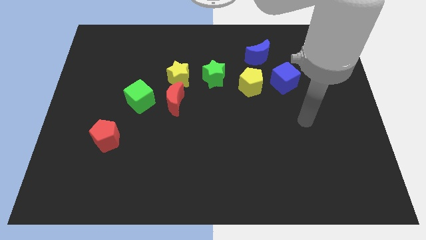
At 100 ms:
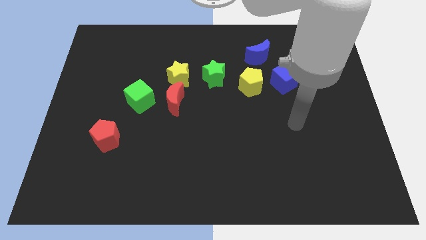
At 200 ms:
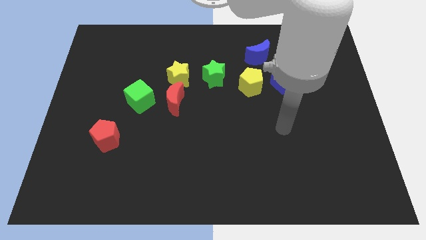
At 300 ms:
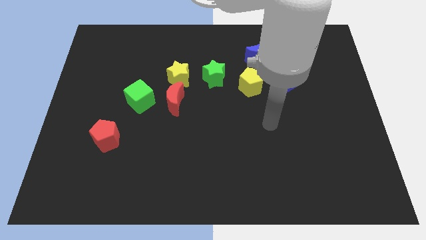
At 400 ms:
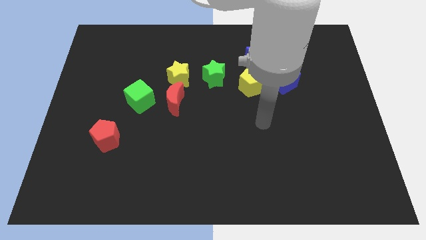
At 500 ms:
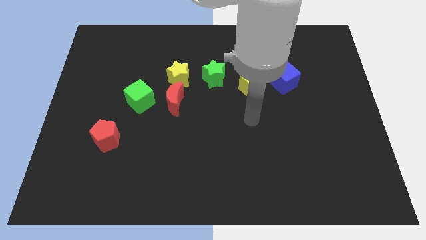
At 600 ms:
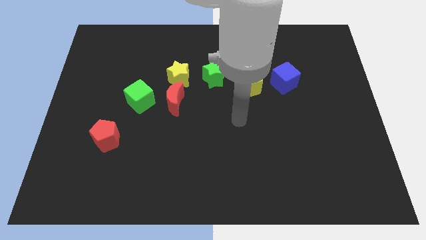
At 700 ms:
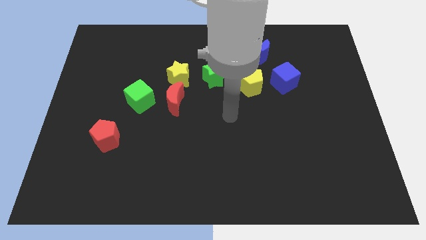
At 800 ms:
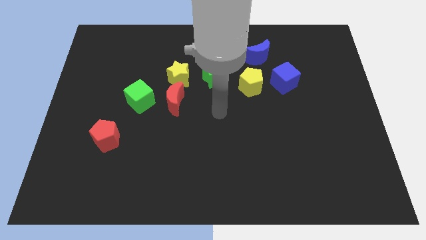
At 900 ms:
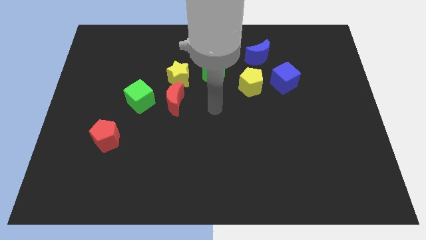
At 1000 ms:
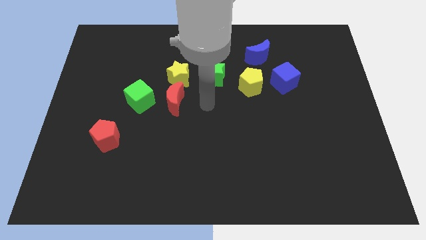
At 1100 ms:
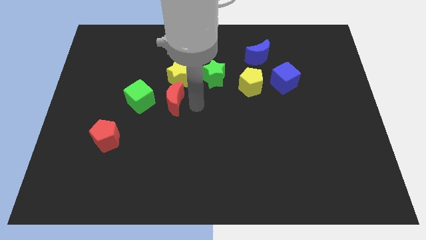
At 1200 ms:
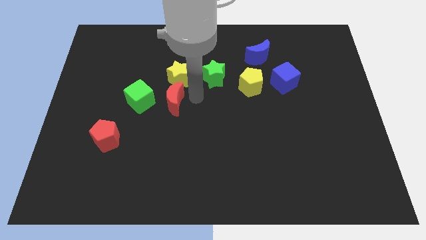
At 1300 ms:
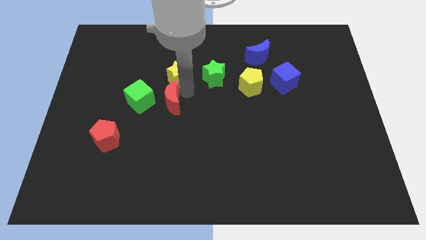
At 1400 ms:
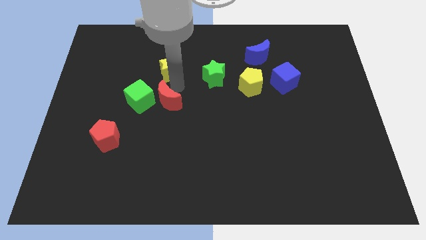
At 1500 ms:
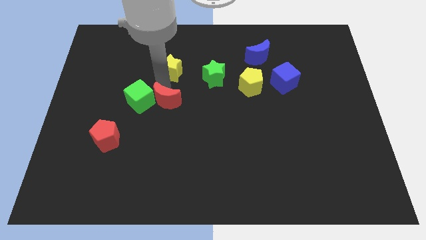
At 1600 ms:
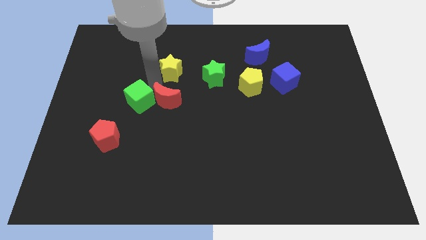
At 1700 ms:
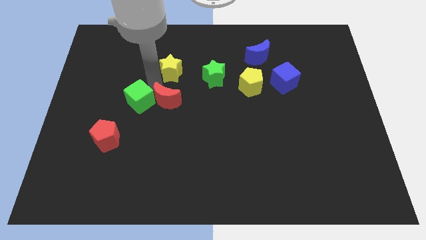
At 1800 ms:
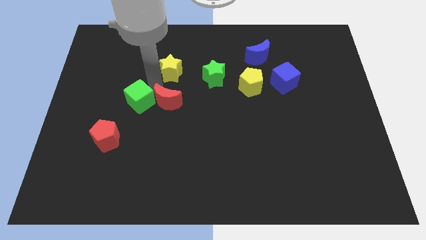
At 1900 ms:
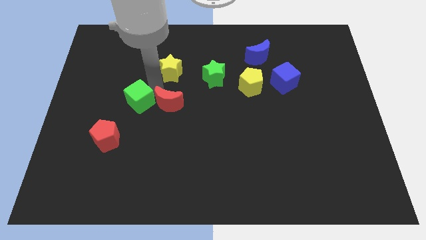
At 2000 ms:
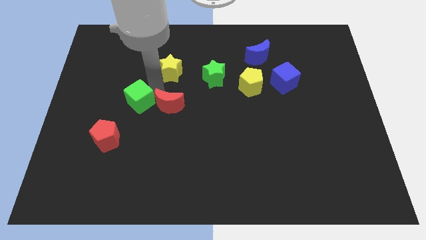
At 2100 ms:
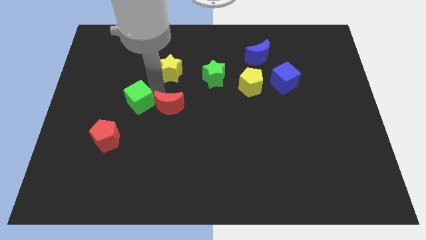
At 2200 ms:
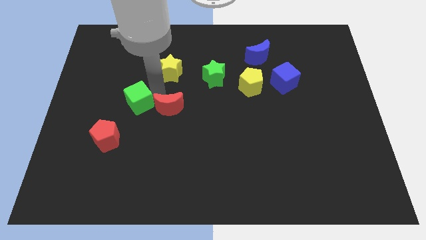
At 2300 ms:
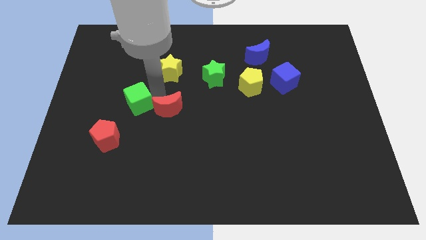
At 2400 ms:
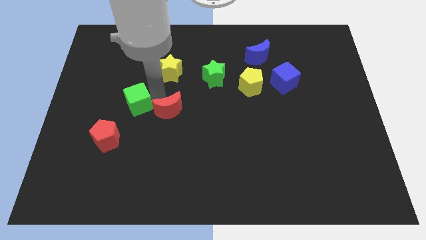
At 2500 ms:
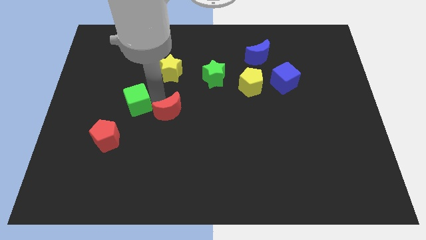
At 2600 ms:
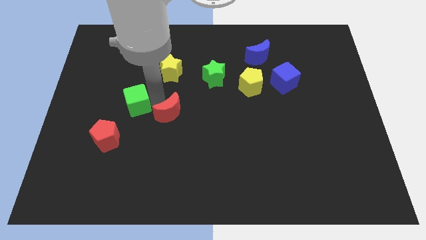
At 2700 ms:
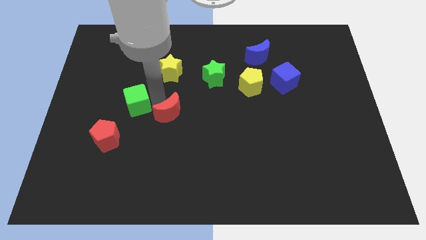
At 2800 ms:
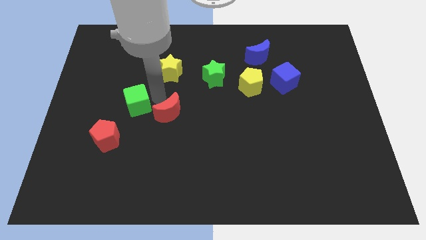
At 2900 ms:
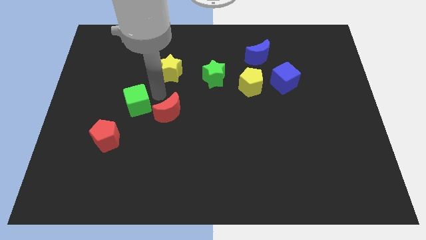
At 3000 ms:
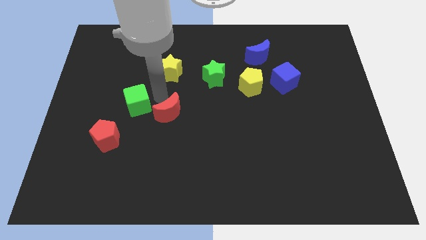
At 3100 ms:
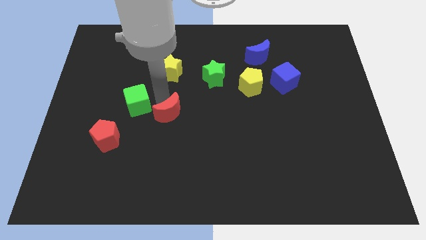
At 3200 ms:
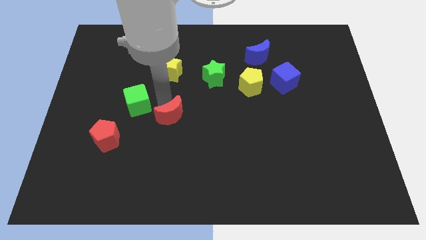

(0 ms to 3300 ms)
pull the red moon apart from the yellow star and green cube

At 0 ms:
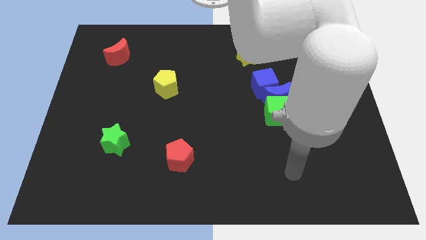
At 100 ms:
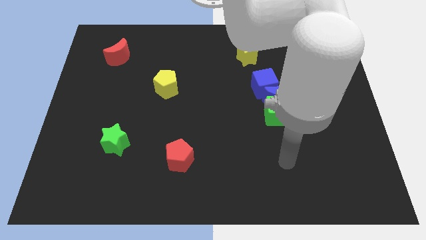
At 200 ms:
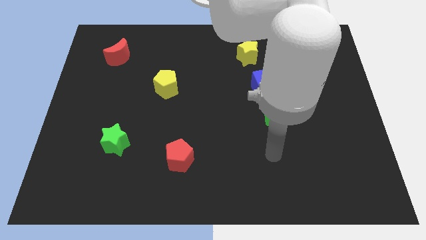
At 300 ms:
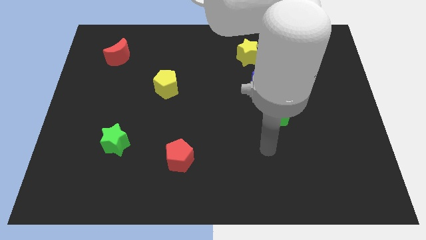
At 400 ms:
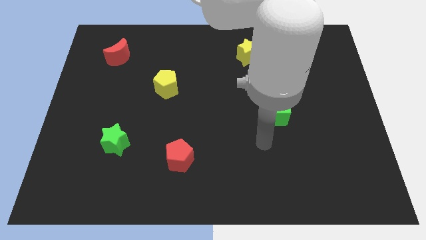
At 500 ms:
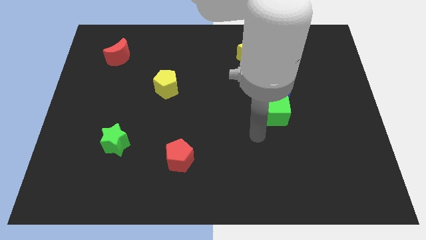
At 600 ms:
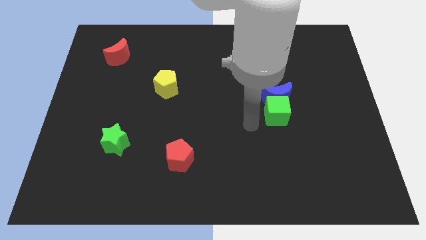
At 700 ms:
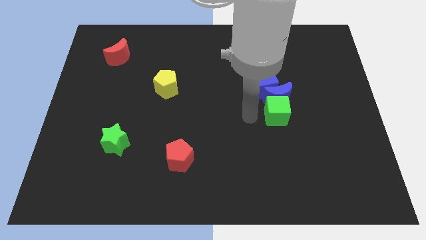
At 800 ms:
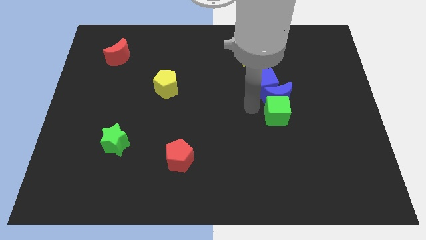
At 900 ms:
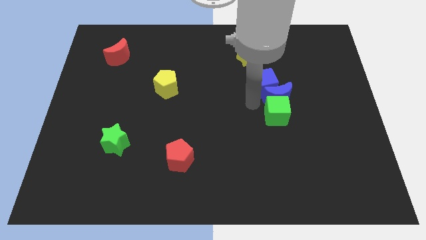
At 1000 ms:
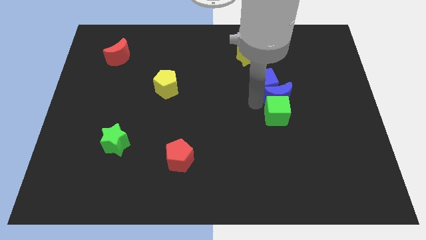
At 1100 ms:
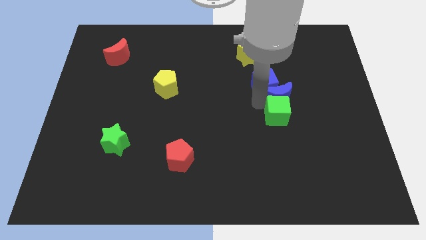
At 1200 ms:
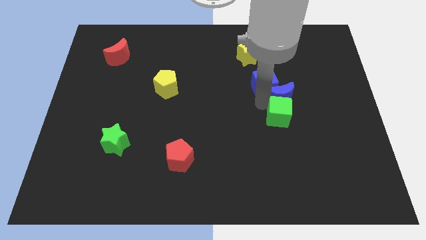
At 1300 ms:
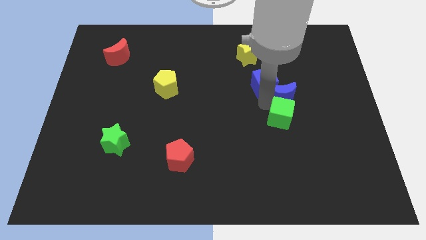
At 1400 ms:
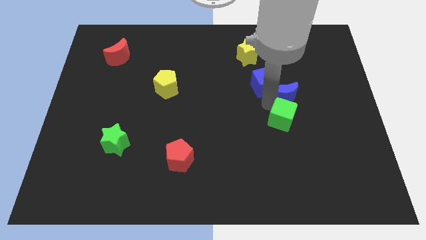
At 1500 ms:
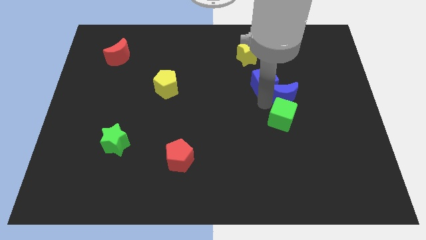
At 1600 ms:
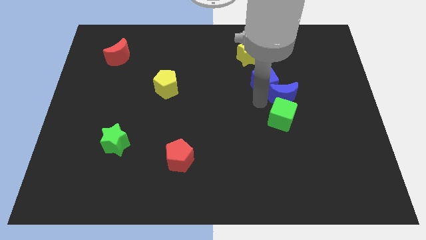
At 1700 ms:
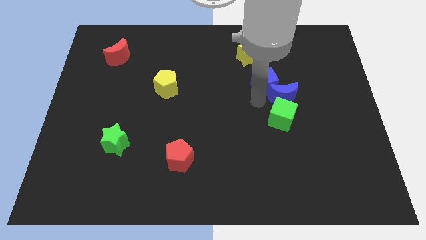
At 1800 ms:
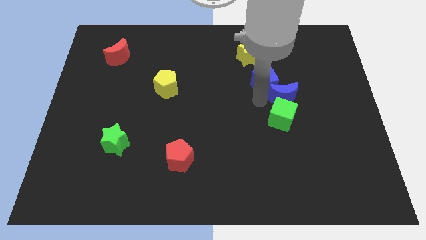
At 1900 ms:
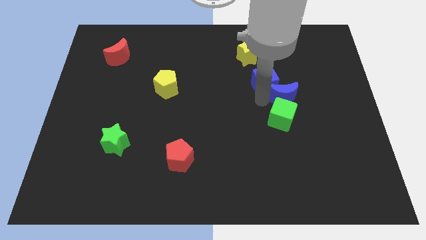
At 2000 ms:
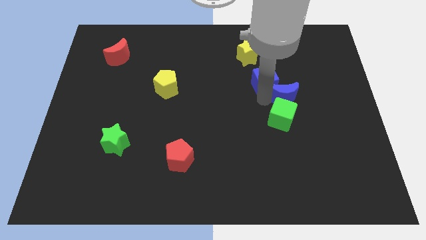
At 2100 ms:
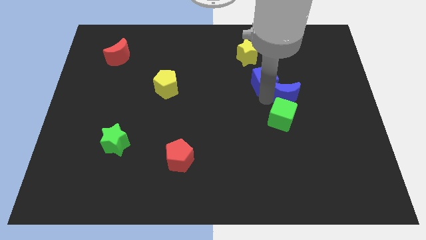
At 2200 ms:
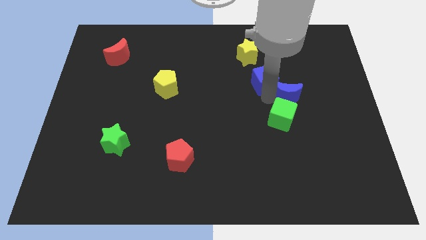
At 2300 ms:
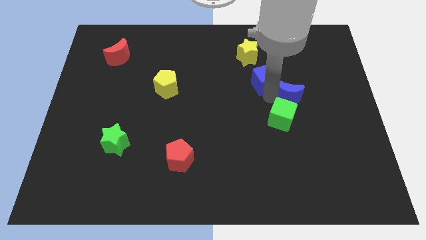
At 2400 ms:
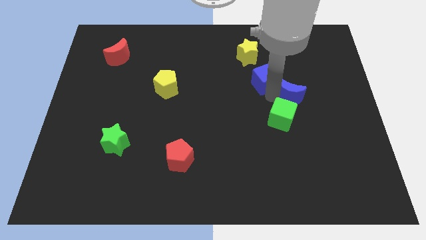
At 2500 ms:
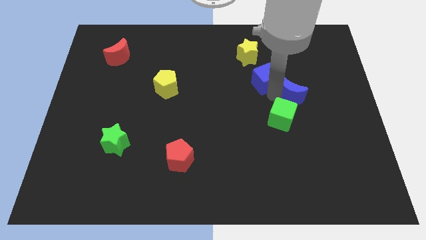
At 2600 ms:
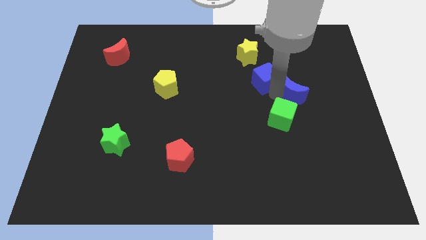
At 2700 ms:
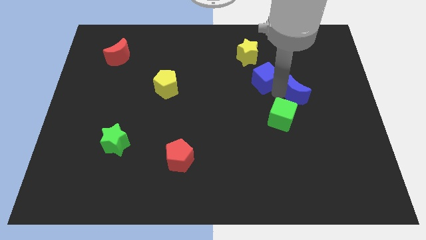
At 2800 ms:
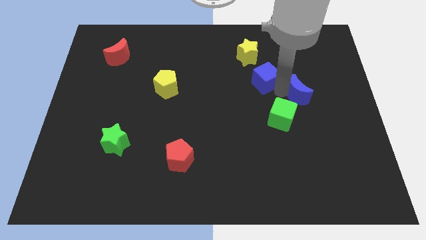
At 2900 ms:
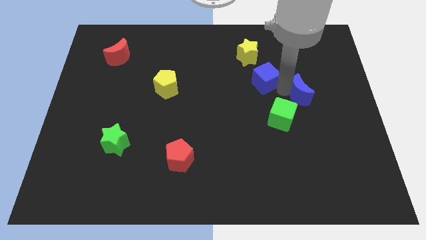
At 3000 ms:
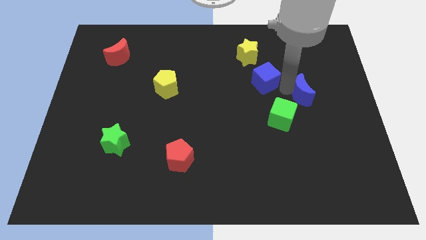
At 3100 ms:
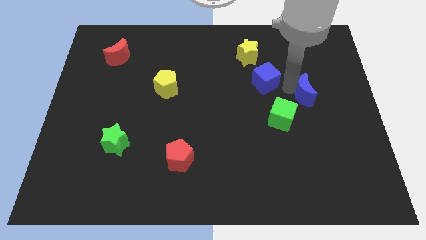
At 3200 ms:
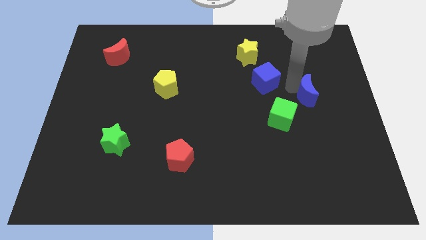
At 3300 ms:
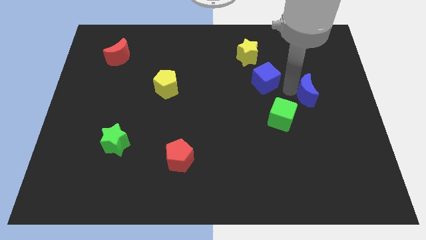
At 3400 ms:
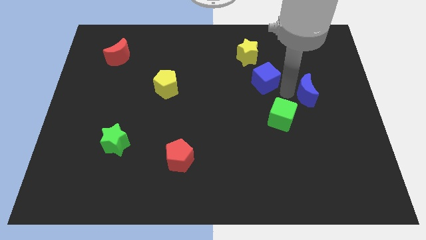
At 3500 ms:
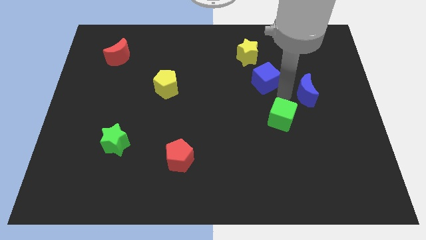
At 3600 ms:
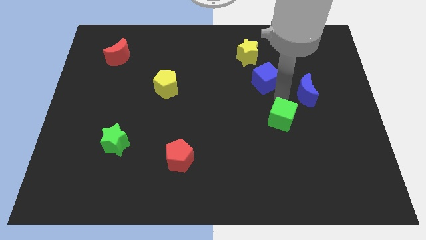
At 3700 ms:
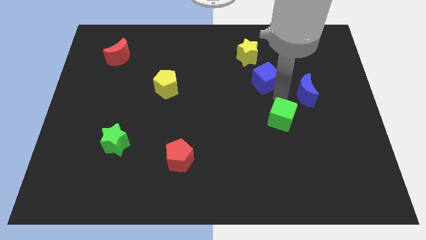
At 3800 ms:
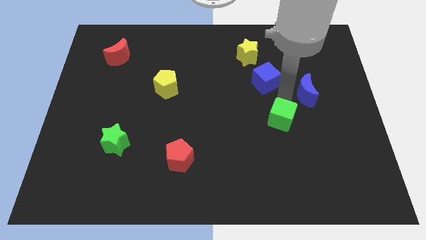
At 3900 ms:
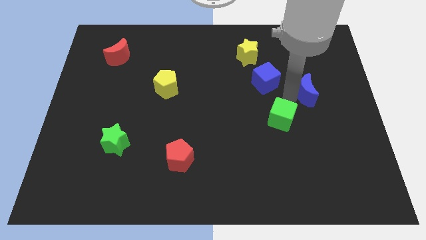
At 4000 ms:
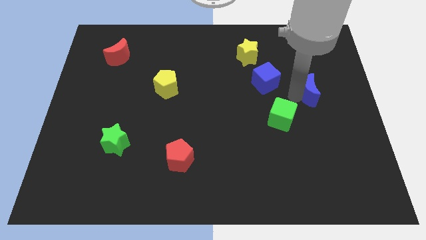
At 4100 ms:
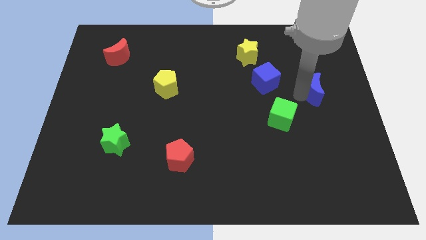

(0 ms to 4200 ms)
move the blue moon away from the green cube and blue cube

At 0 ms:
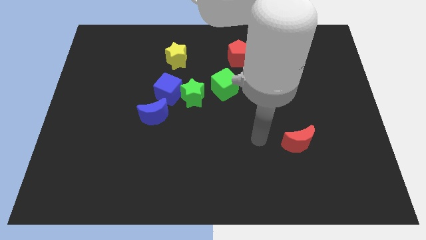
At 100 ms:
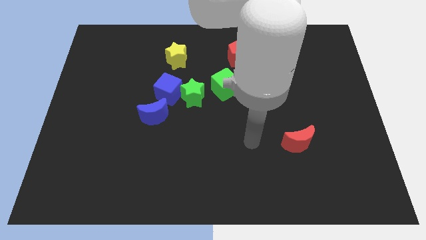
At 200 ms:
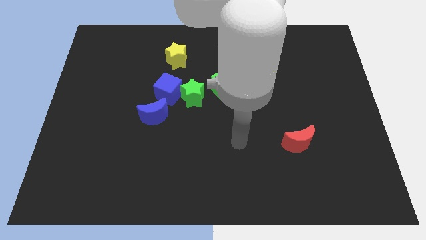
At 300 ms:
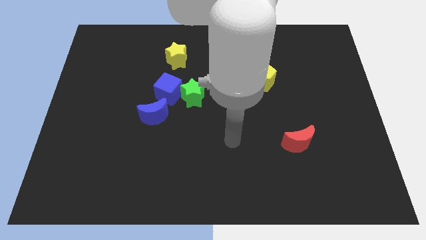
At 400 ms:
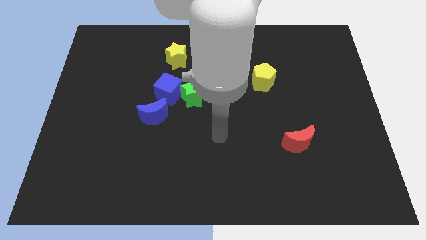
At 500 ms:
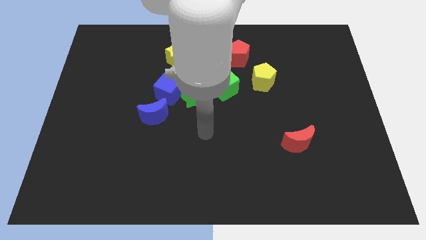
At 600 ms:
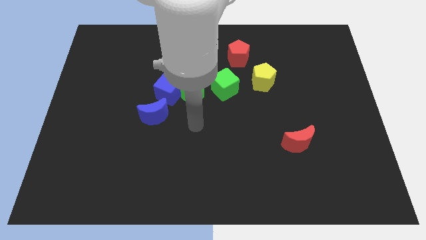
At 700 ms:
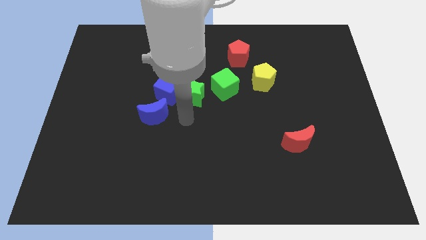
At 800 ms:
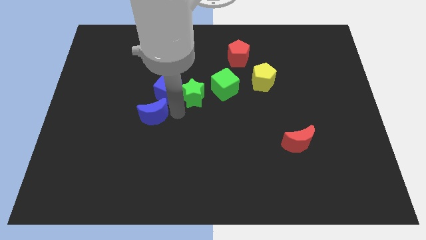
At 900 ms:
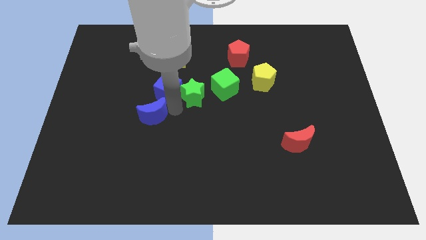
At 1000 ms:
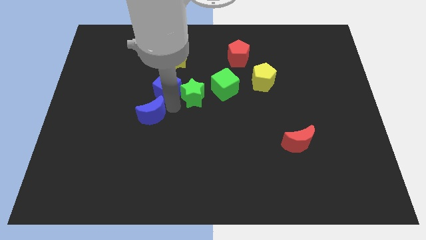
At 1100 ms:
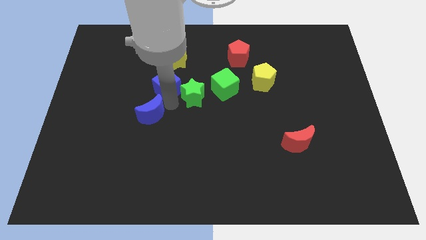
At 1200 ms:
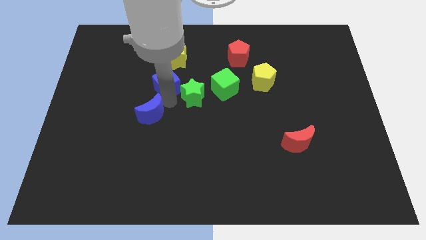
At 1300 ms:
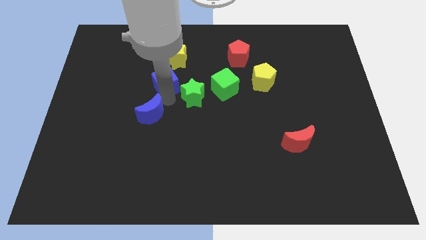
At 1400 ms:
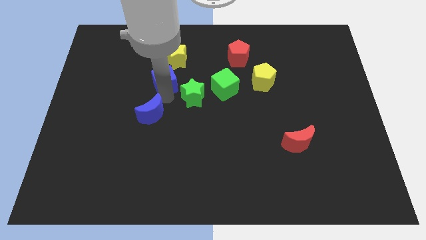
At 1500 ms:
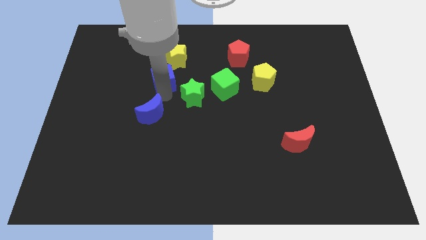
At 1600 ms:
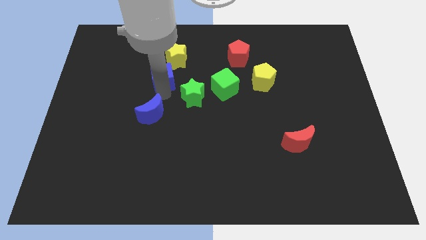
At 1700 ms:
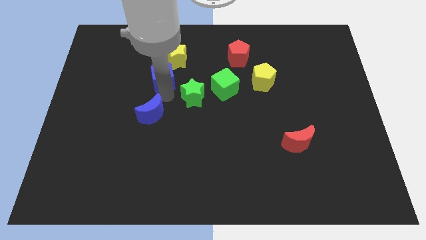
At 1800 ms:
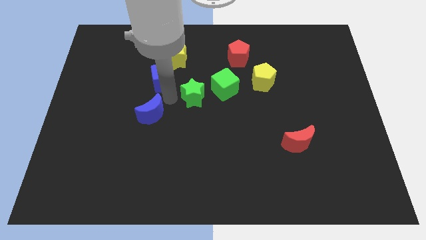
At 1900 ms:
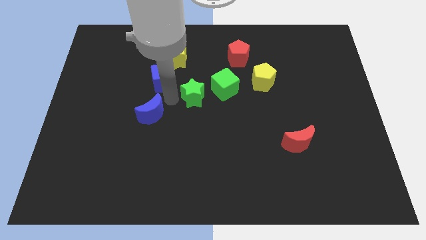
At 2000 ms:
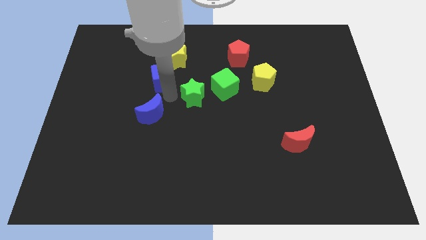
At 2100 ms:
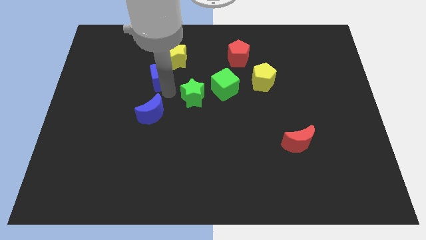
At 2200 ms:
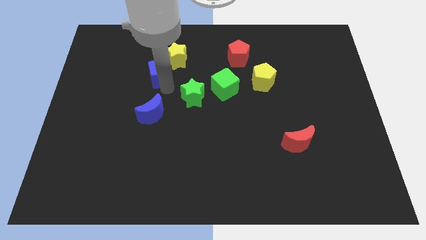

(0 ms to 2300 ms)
pull the blue cube apart from the green star and blue moon
